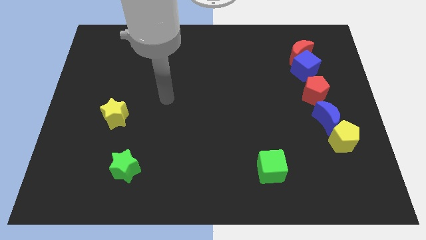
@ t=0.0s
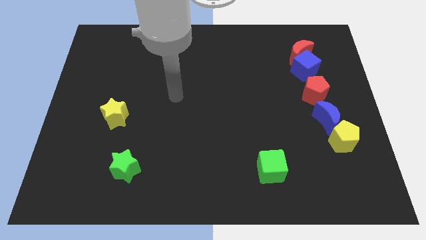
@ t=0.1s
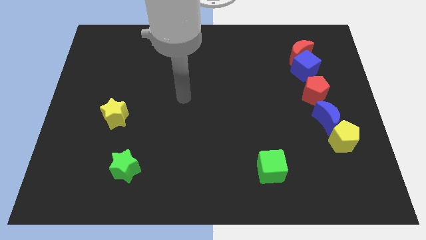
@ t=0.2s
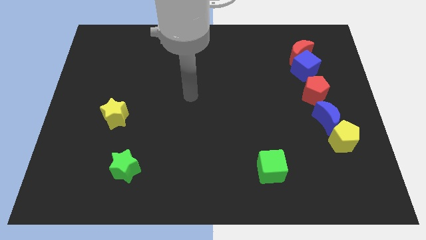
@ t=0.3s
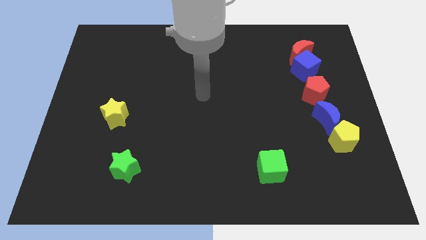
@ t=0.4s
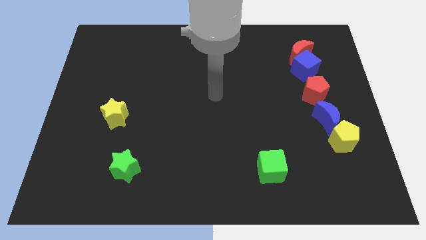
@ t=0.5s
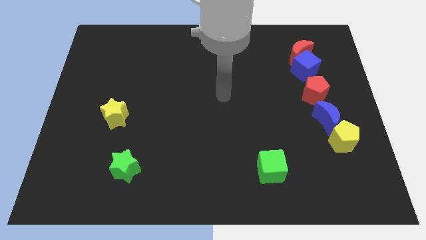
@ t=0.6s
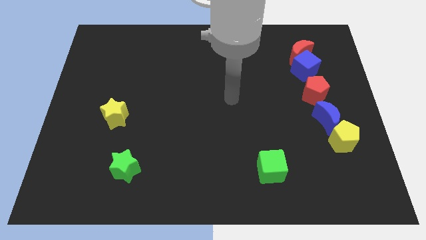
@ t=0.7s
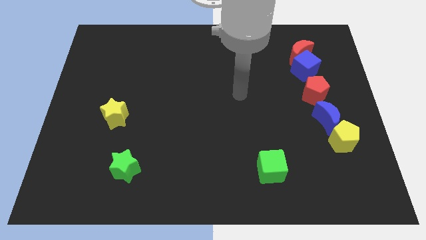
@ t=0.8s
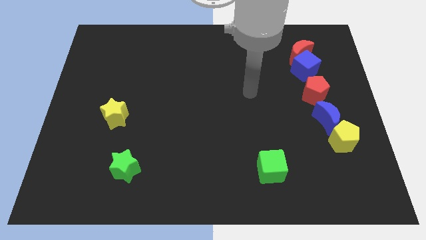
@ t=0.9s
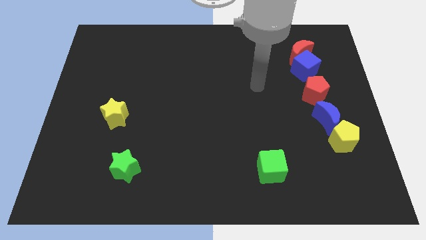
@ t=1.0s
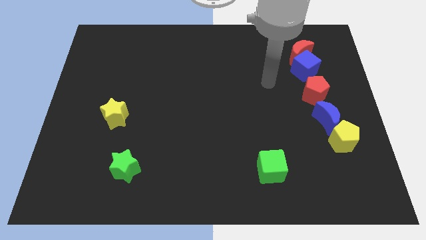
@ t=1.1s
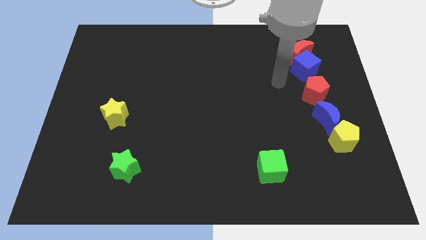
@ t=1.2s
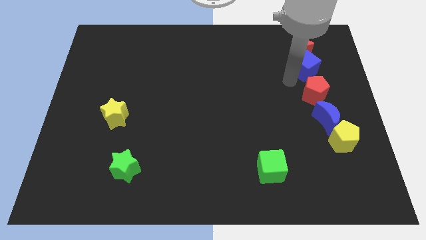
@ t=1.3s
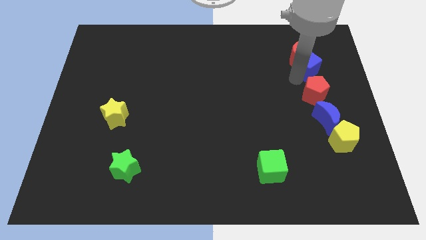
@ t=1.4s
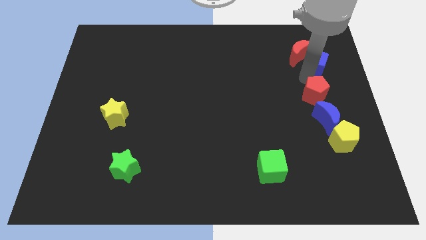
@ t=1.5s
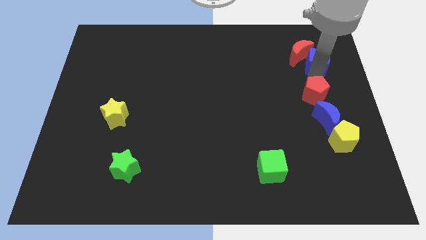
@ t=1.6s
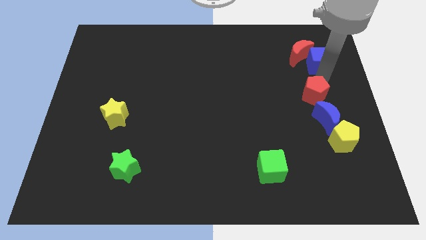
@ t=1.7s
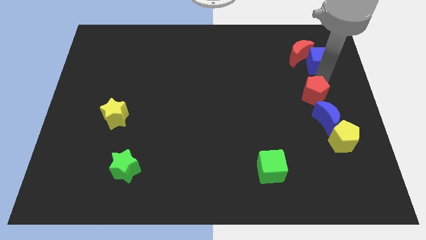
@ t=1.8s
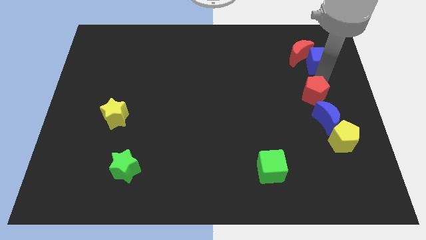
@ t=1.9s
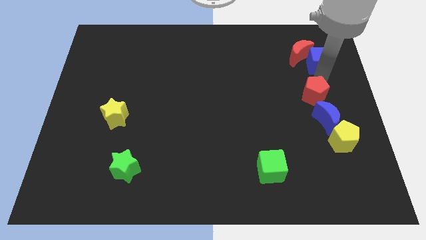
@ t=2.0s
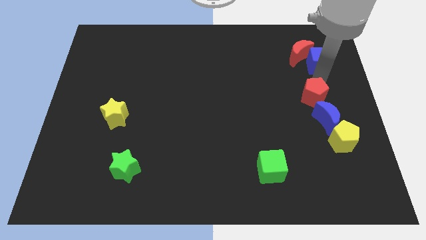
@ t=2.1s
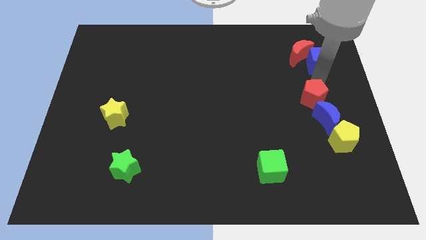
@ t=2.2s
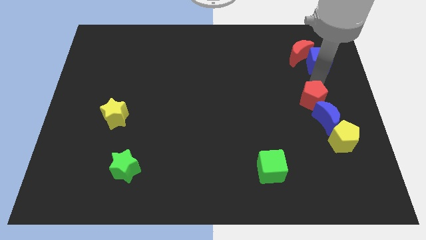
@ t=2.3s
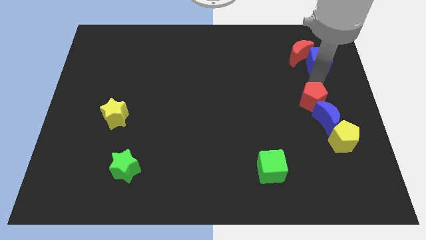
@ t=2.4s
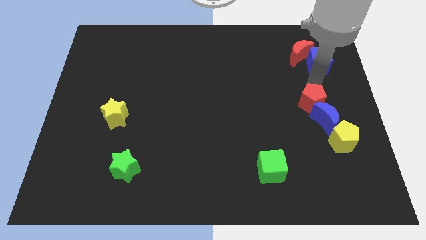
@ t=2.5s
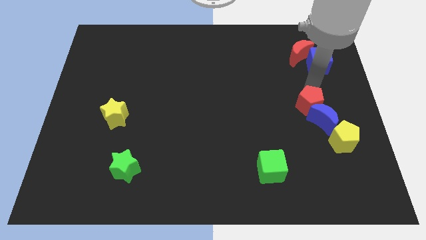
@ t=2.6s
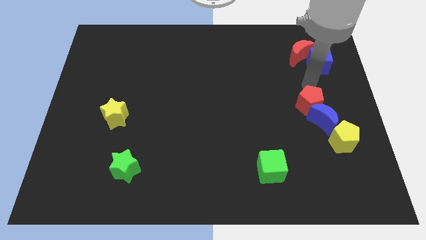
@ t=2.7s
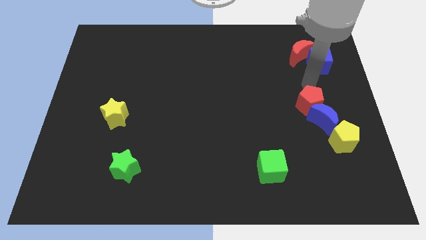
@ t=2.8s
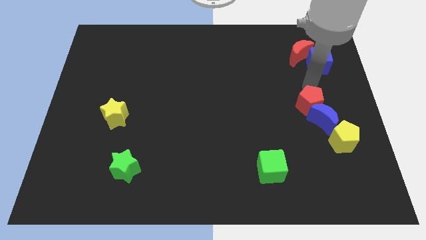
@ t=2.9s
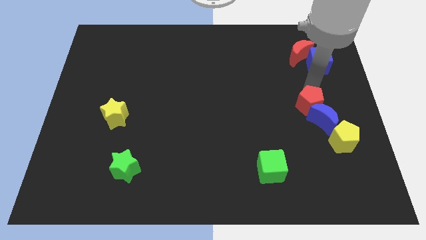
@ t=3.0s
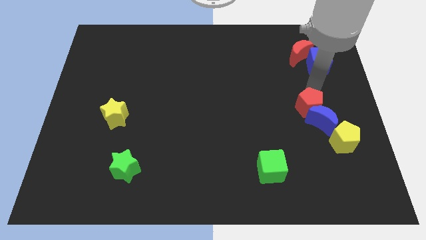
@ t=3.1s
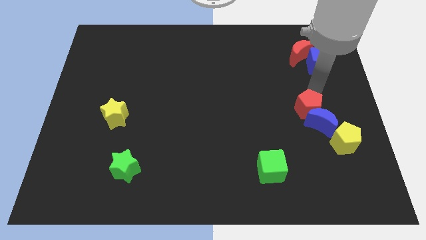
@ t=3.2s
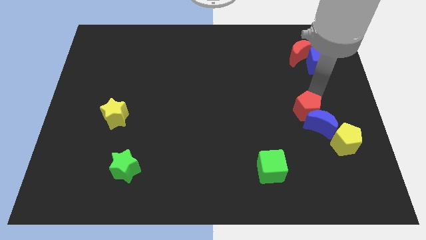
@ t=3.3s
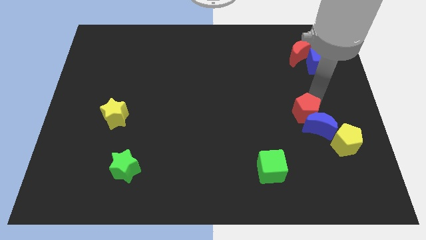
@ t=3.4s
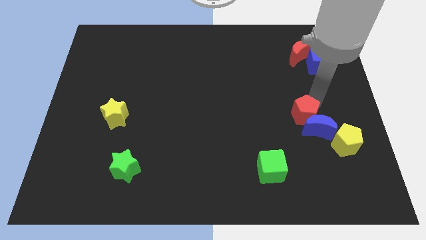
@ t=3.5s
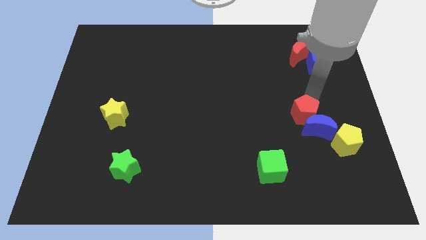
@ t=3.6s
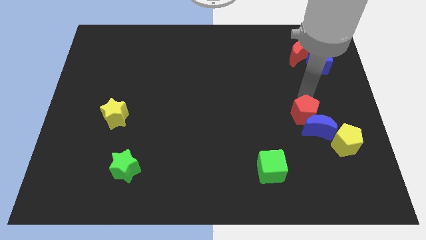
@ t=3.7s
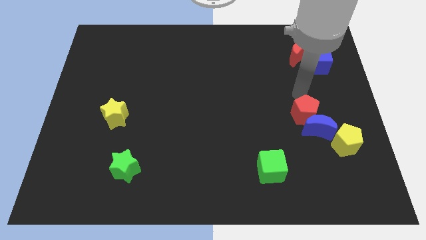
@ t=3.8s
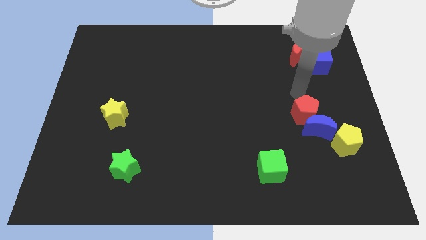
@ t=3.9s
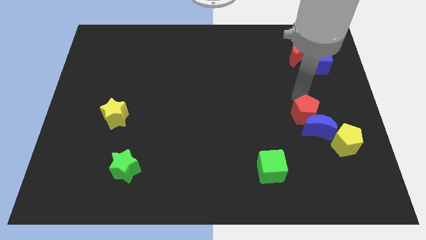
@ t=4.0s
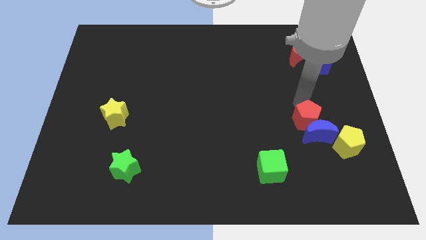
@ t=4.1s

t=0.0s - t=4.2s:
slightly slide the red pentagon downwards

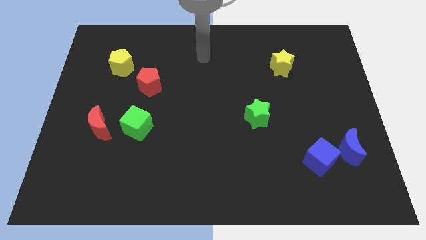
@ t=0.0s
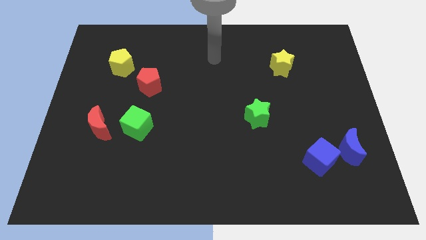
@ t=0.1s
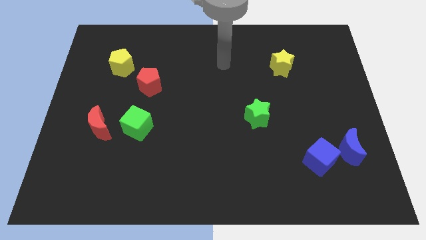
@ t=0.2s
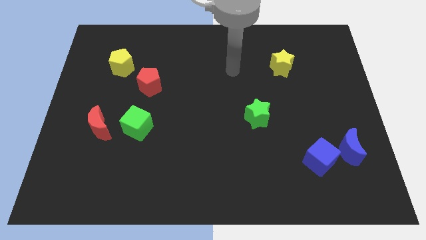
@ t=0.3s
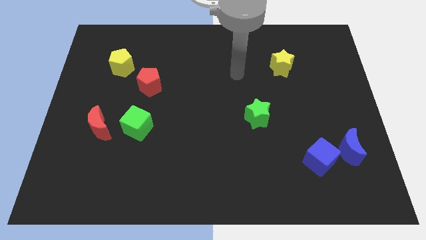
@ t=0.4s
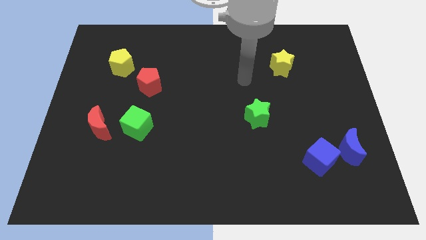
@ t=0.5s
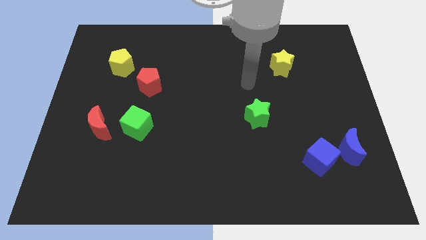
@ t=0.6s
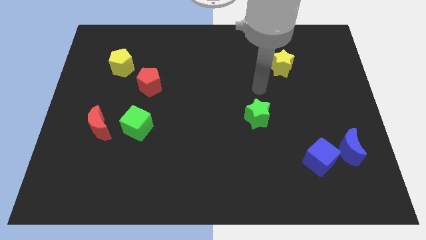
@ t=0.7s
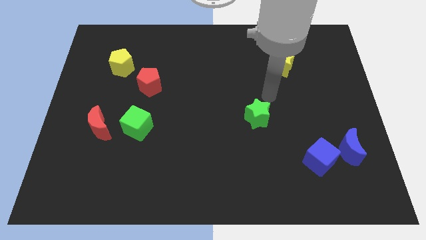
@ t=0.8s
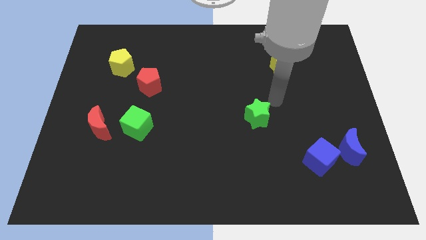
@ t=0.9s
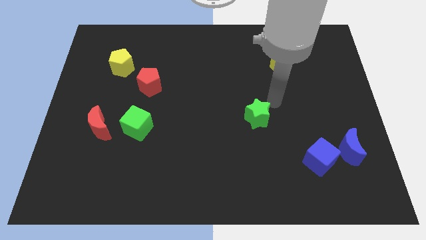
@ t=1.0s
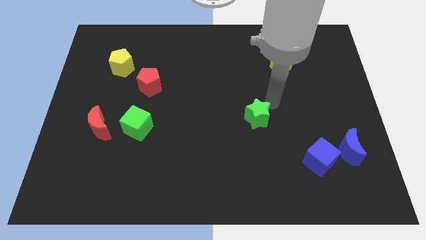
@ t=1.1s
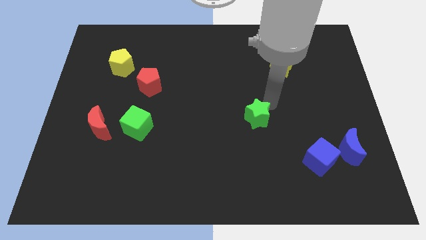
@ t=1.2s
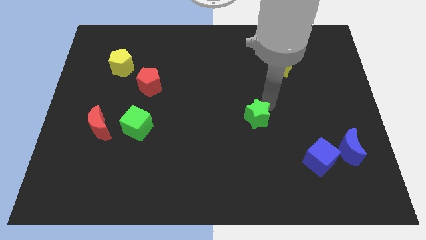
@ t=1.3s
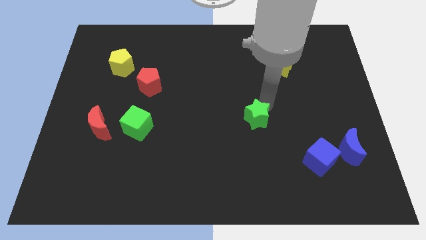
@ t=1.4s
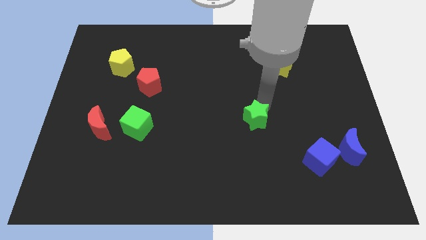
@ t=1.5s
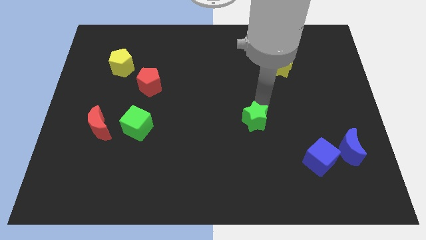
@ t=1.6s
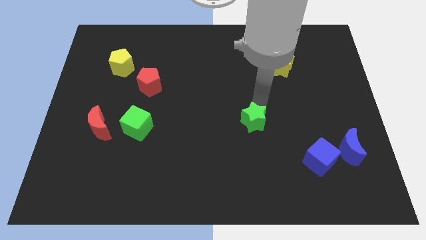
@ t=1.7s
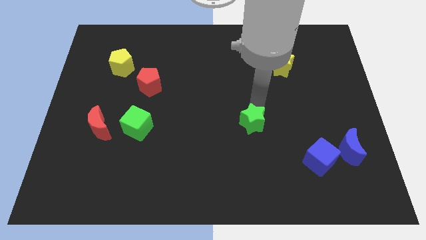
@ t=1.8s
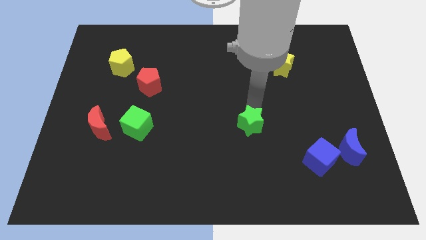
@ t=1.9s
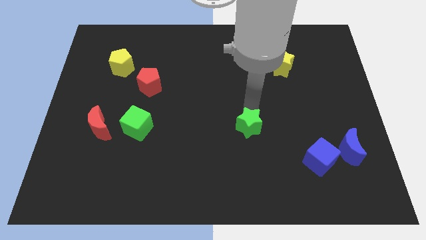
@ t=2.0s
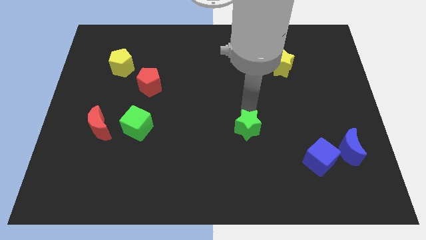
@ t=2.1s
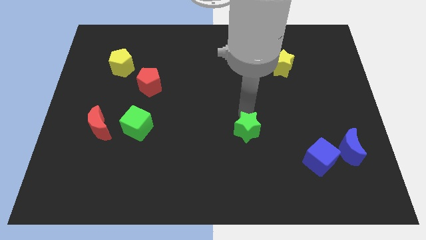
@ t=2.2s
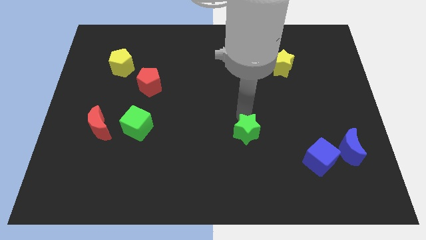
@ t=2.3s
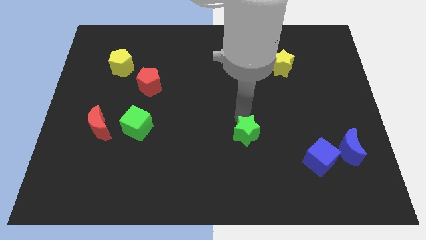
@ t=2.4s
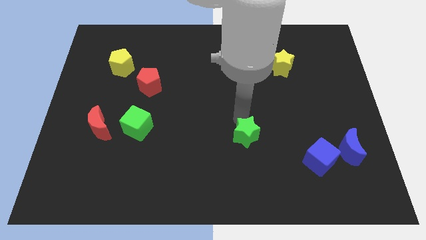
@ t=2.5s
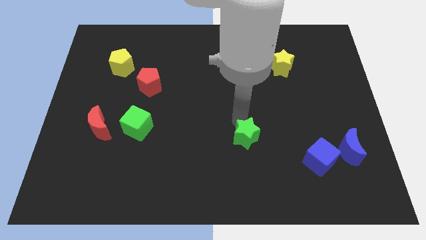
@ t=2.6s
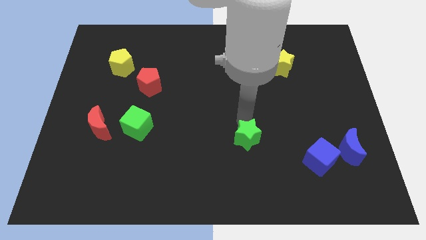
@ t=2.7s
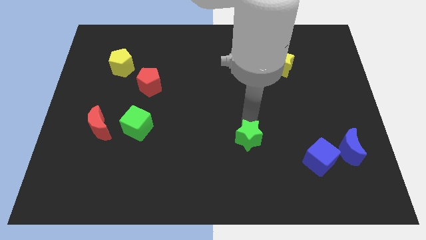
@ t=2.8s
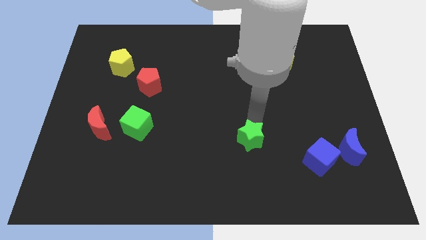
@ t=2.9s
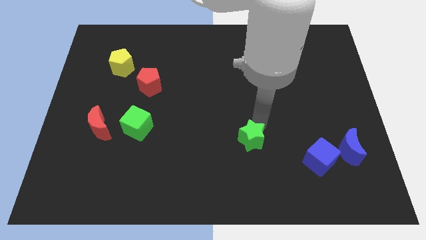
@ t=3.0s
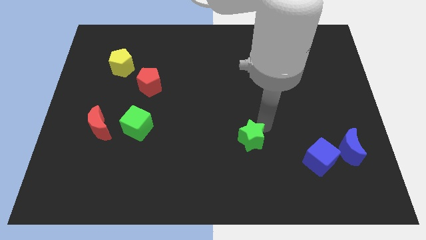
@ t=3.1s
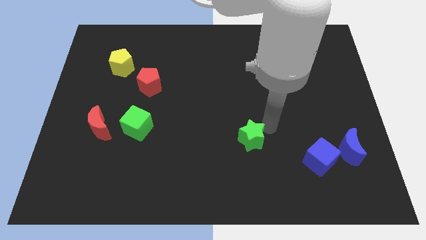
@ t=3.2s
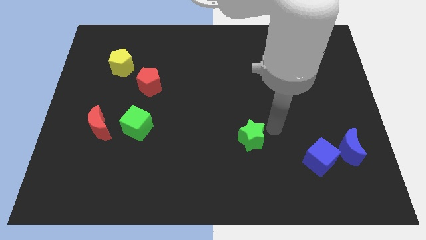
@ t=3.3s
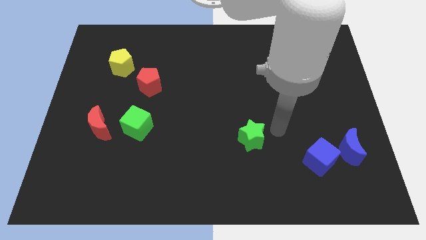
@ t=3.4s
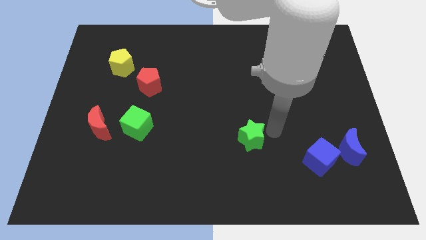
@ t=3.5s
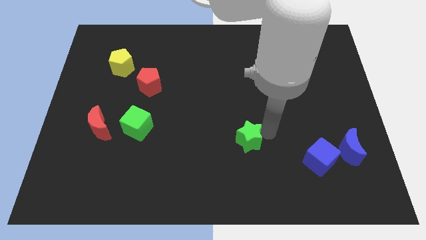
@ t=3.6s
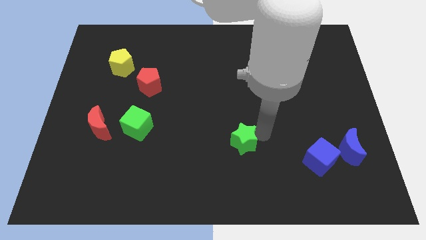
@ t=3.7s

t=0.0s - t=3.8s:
move the green star downwards and to the left a bit
